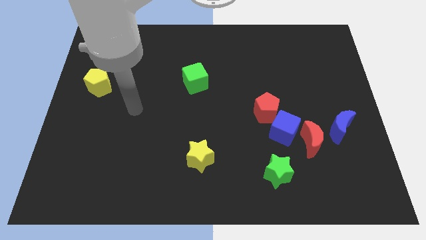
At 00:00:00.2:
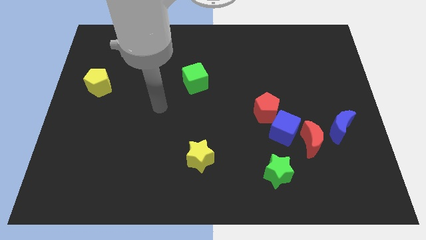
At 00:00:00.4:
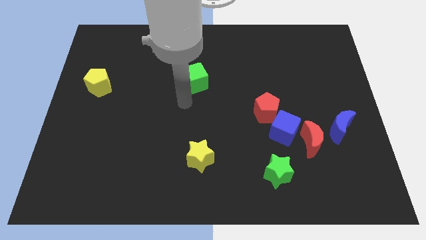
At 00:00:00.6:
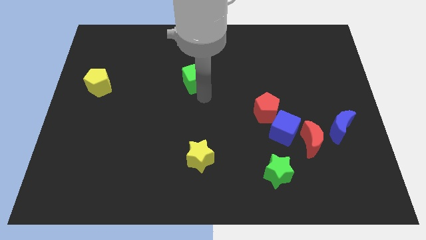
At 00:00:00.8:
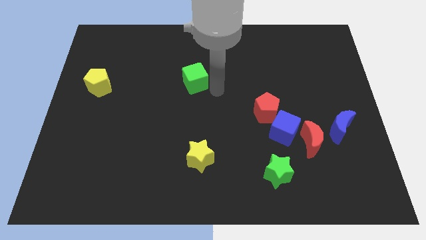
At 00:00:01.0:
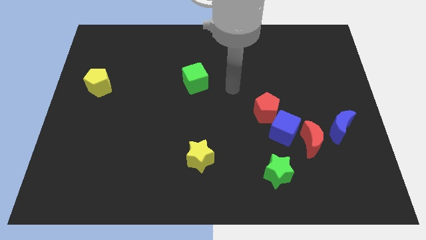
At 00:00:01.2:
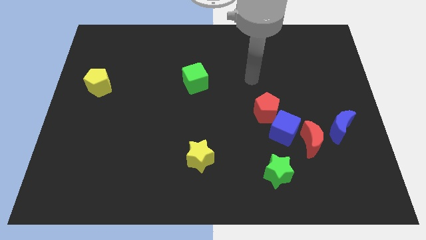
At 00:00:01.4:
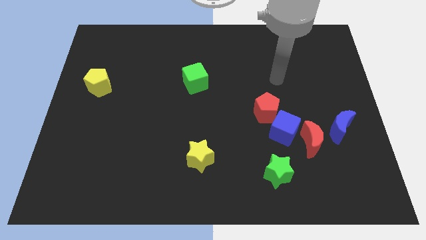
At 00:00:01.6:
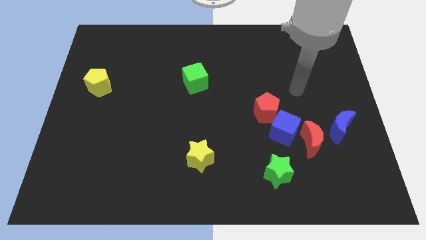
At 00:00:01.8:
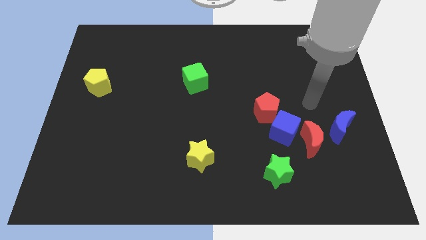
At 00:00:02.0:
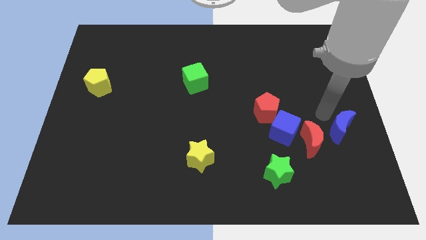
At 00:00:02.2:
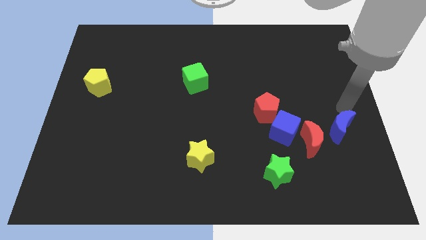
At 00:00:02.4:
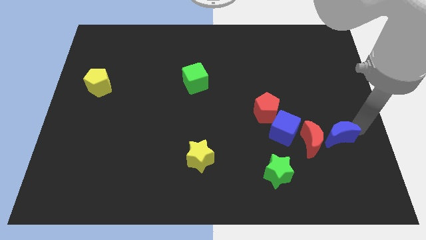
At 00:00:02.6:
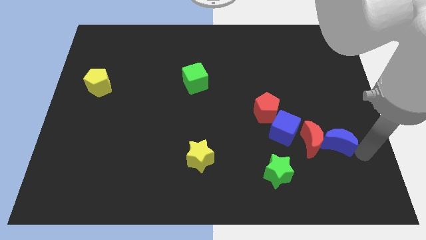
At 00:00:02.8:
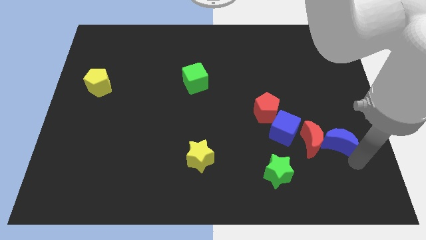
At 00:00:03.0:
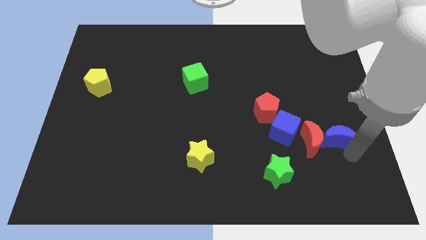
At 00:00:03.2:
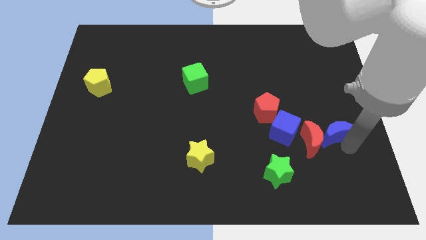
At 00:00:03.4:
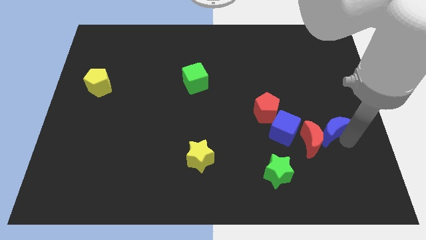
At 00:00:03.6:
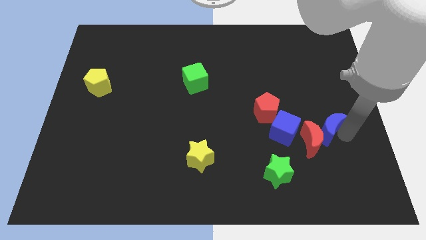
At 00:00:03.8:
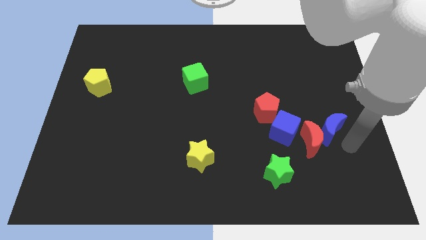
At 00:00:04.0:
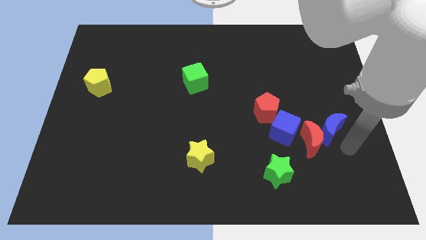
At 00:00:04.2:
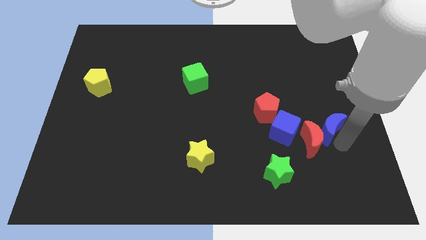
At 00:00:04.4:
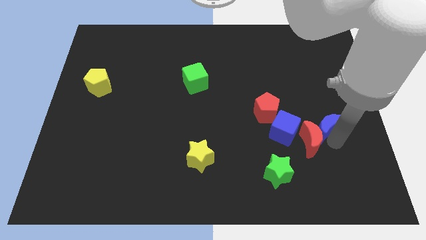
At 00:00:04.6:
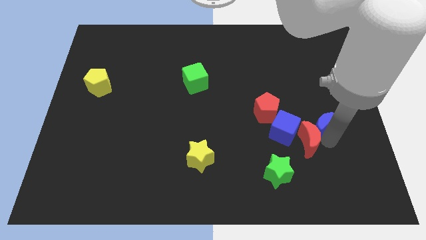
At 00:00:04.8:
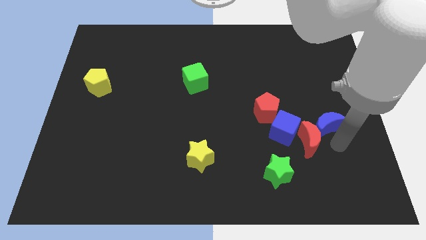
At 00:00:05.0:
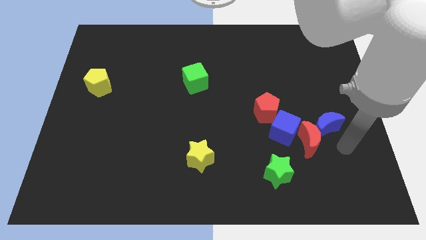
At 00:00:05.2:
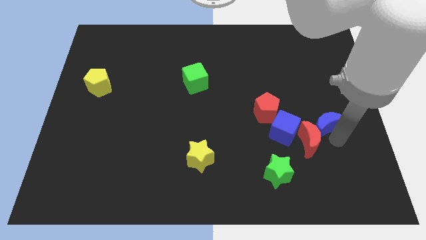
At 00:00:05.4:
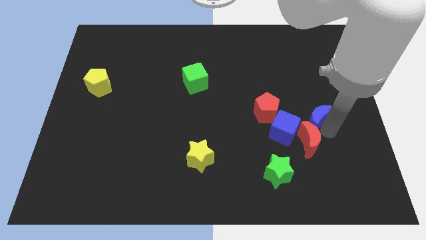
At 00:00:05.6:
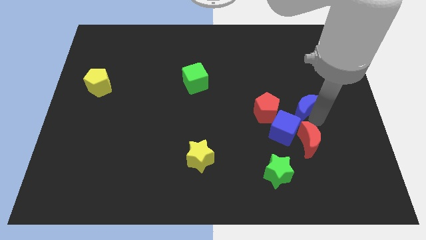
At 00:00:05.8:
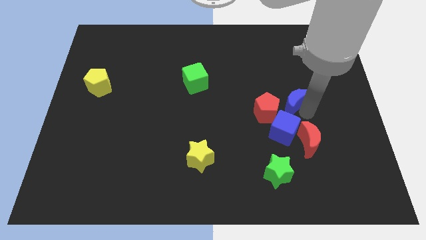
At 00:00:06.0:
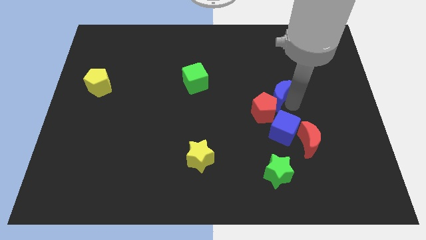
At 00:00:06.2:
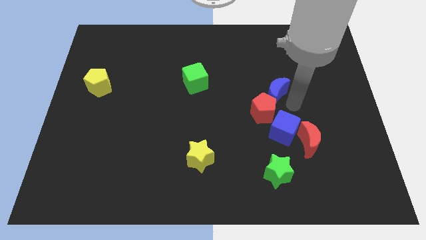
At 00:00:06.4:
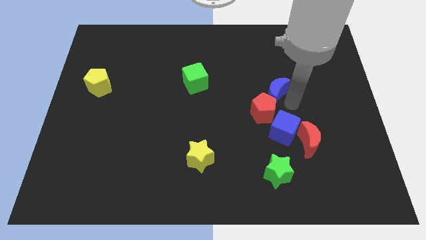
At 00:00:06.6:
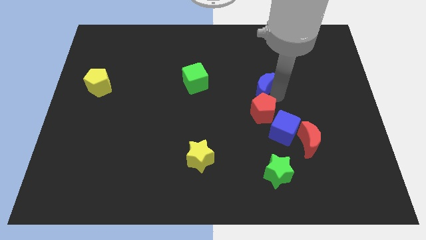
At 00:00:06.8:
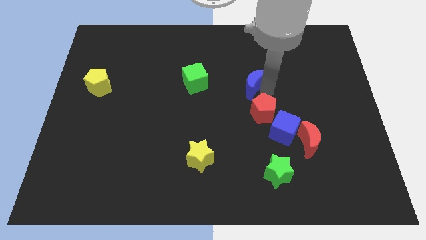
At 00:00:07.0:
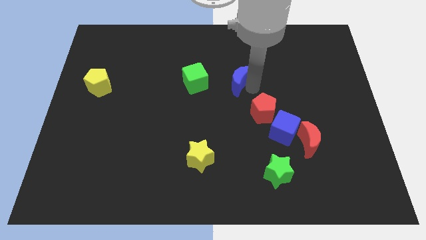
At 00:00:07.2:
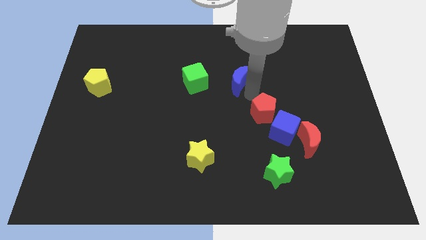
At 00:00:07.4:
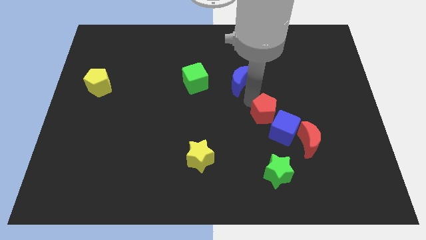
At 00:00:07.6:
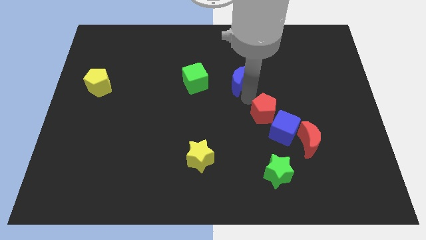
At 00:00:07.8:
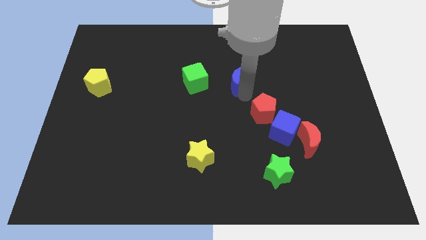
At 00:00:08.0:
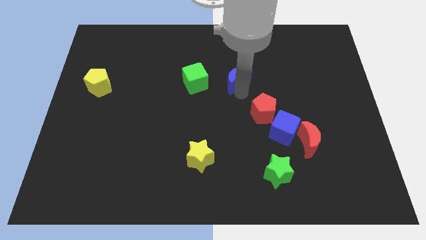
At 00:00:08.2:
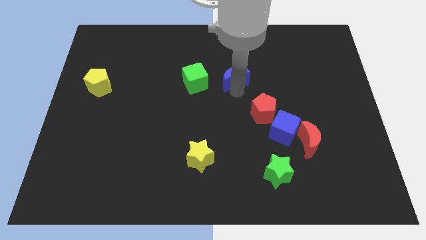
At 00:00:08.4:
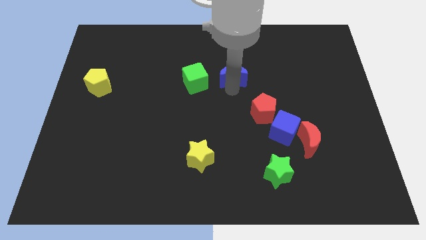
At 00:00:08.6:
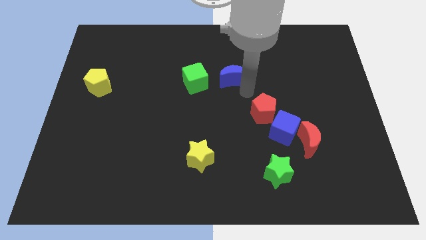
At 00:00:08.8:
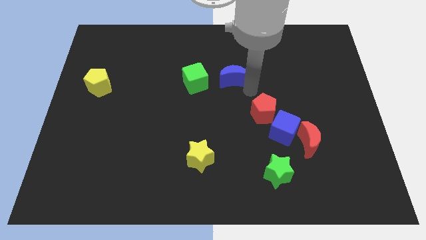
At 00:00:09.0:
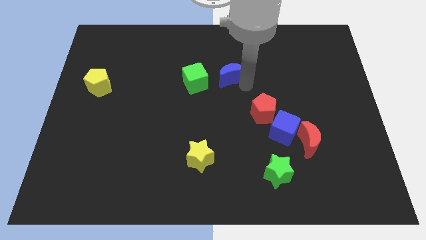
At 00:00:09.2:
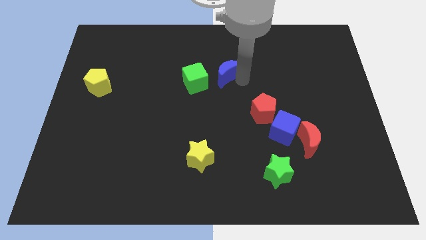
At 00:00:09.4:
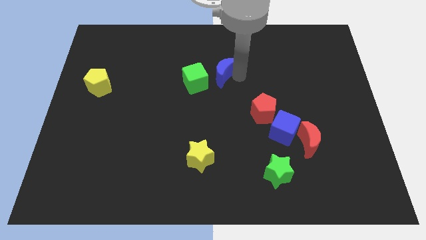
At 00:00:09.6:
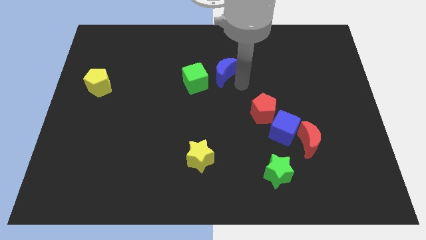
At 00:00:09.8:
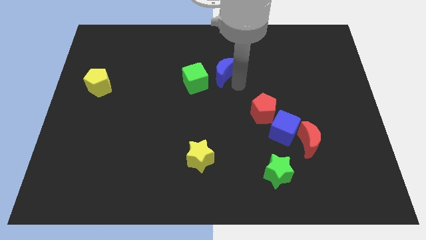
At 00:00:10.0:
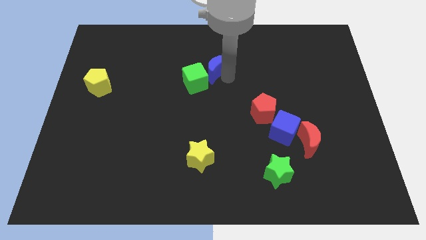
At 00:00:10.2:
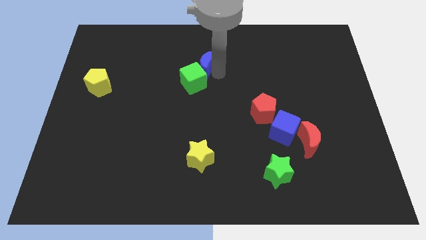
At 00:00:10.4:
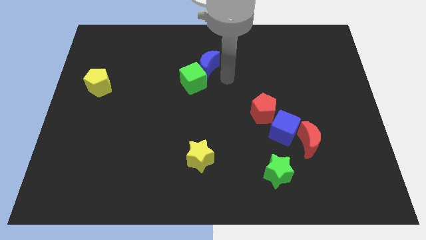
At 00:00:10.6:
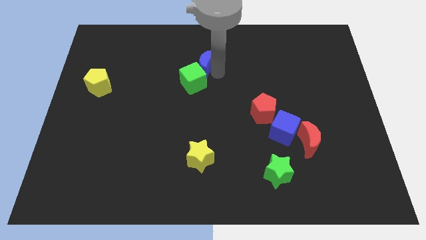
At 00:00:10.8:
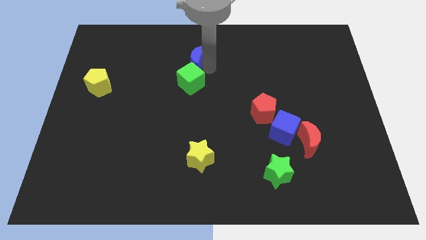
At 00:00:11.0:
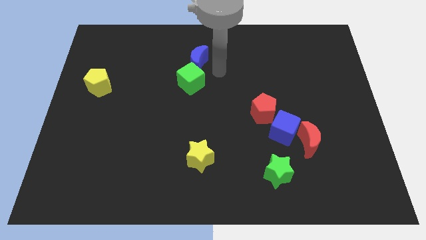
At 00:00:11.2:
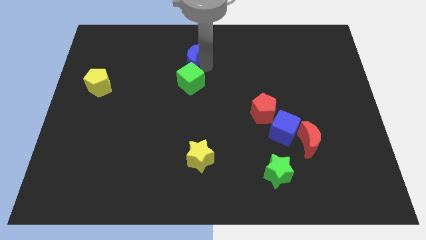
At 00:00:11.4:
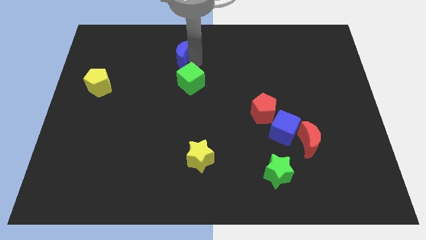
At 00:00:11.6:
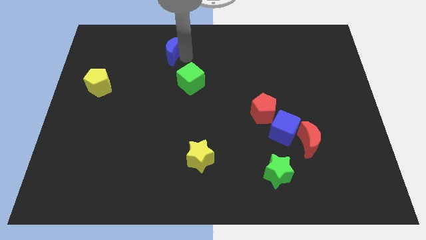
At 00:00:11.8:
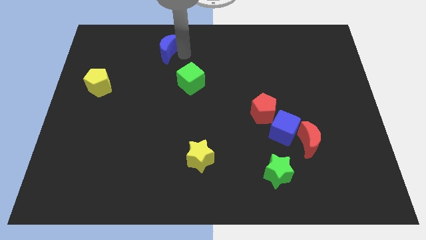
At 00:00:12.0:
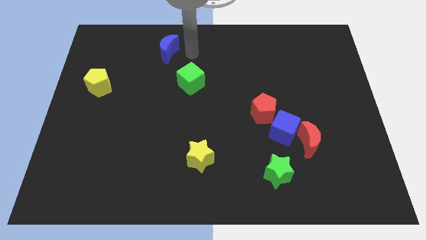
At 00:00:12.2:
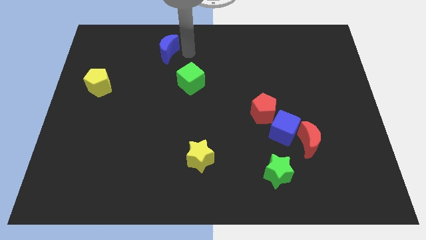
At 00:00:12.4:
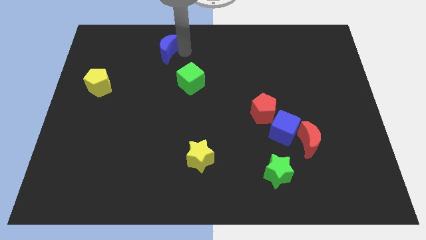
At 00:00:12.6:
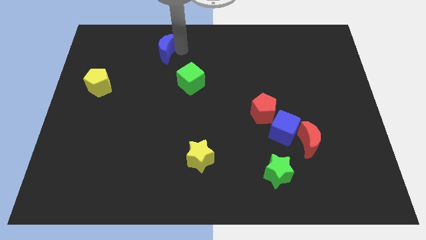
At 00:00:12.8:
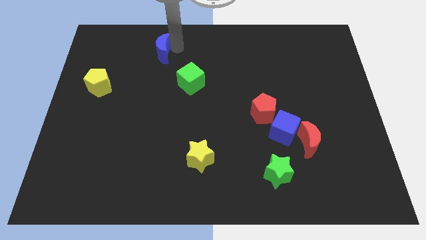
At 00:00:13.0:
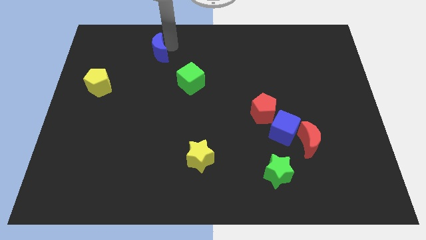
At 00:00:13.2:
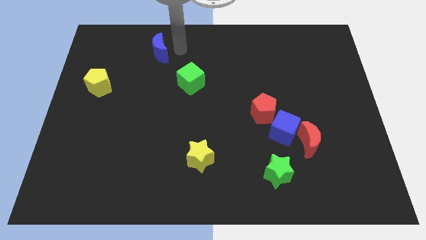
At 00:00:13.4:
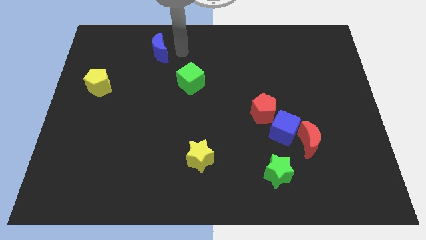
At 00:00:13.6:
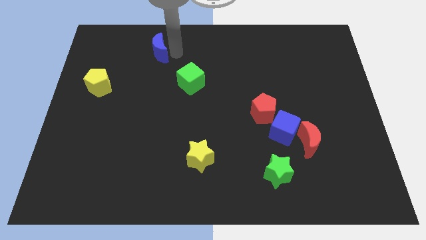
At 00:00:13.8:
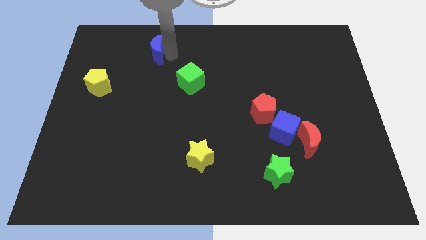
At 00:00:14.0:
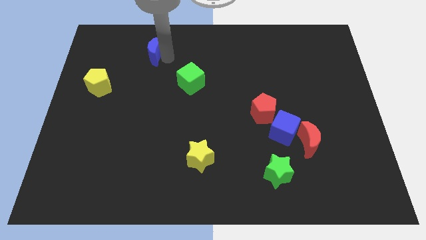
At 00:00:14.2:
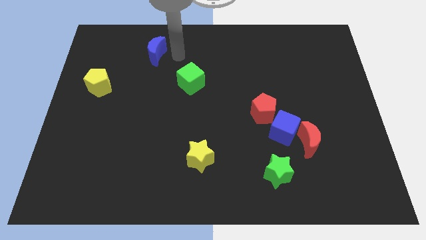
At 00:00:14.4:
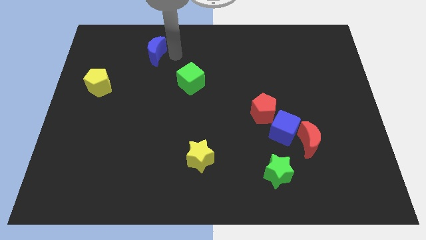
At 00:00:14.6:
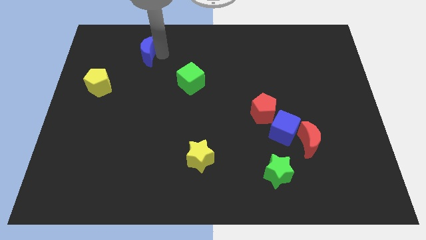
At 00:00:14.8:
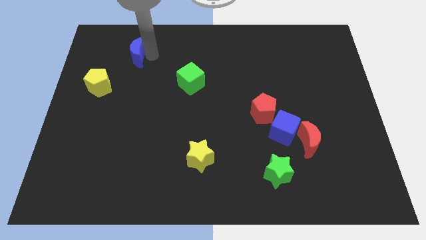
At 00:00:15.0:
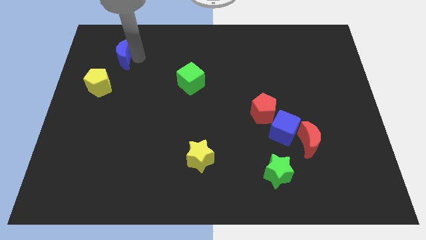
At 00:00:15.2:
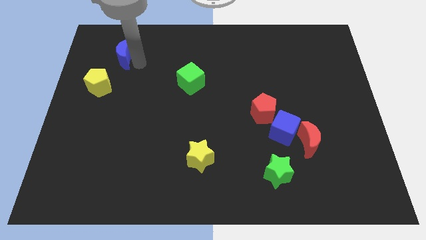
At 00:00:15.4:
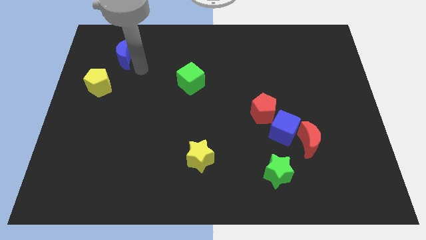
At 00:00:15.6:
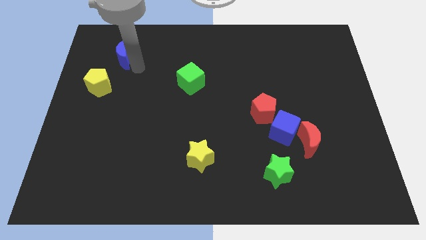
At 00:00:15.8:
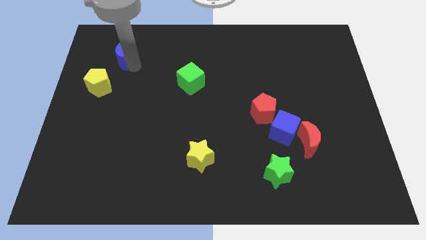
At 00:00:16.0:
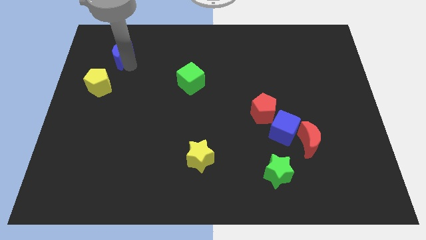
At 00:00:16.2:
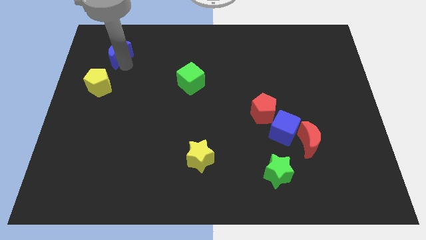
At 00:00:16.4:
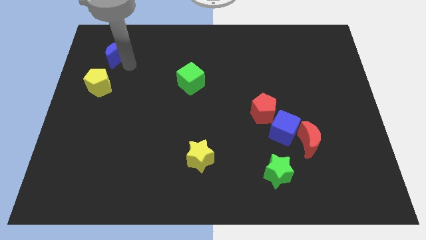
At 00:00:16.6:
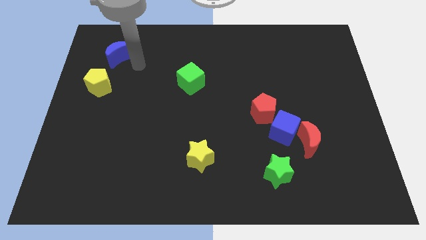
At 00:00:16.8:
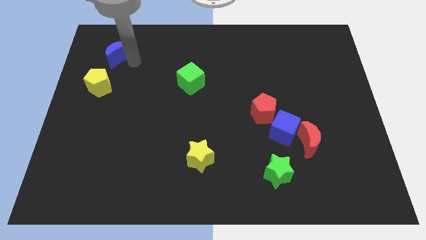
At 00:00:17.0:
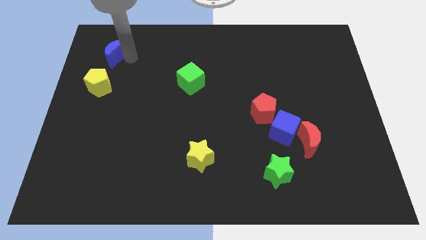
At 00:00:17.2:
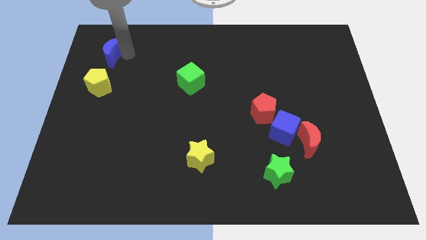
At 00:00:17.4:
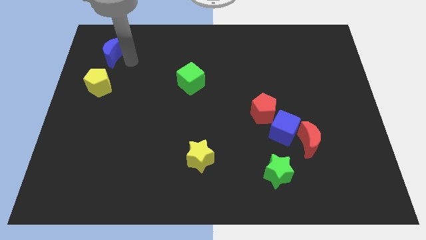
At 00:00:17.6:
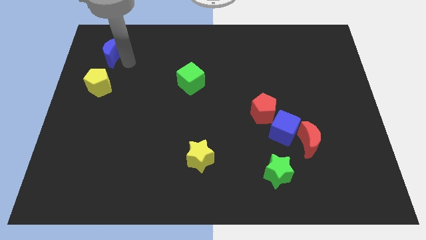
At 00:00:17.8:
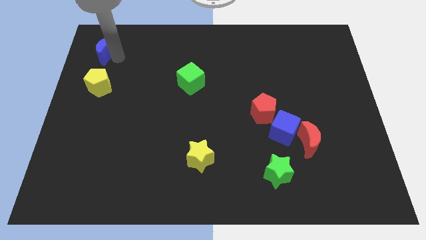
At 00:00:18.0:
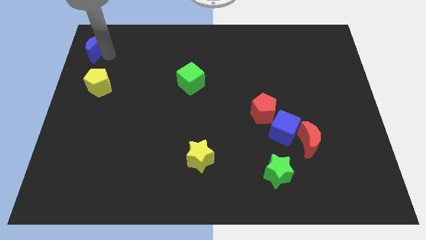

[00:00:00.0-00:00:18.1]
slide the blue moon to the top left corner
